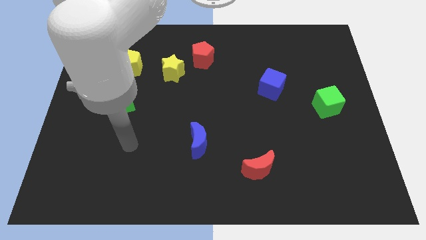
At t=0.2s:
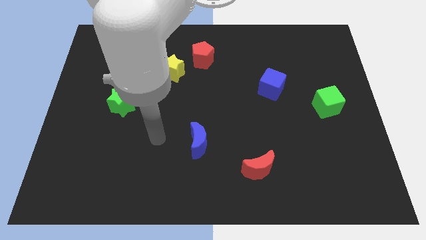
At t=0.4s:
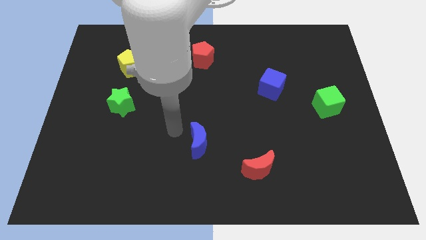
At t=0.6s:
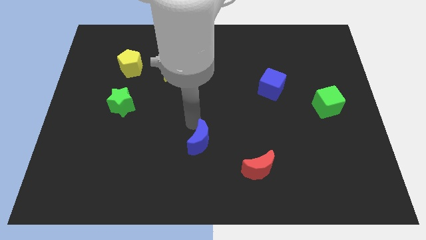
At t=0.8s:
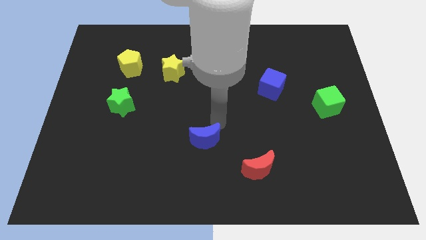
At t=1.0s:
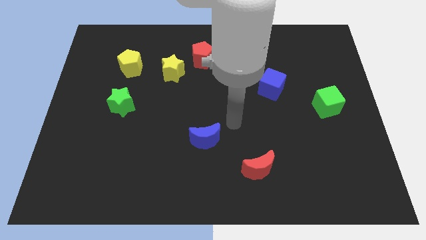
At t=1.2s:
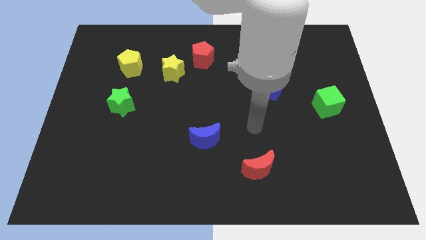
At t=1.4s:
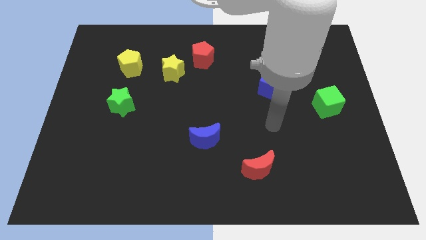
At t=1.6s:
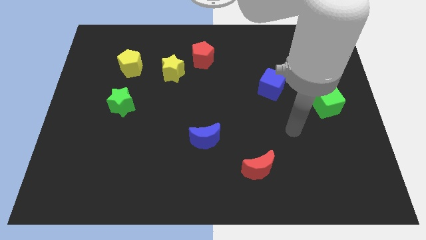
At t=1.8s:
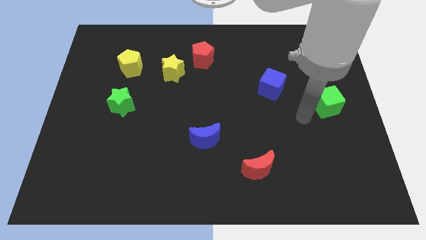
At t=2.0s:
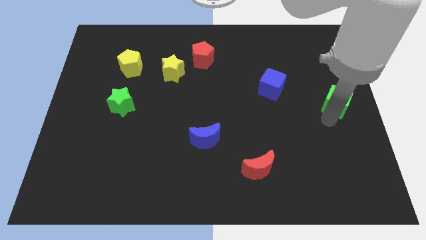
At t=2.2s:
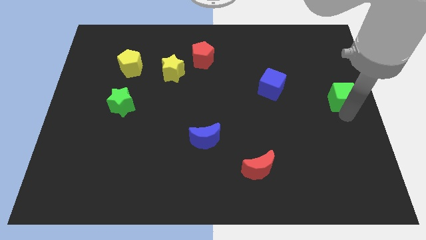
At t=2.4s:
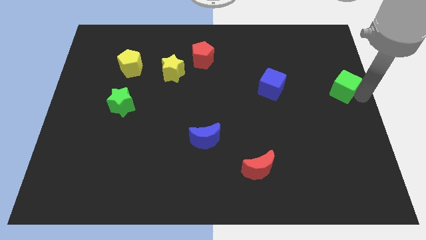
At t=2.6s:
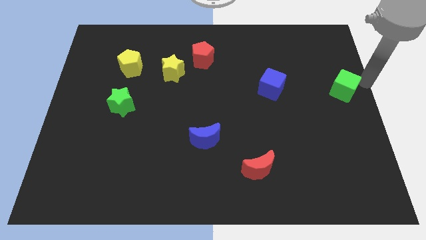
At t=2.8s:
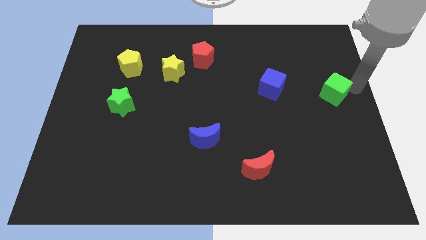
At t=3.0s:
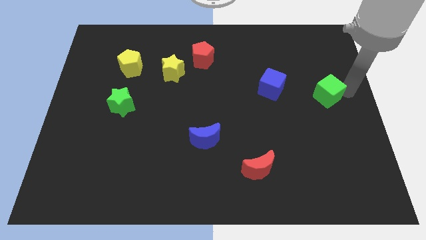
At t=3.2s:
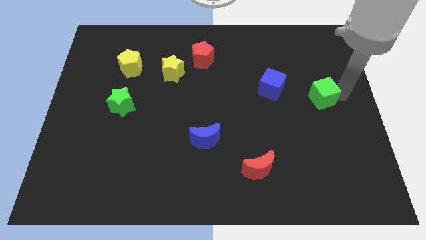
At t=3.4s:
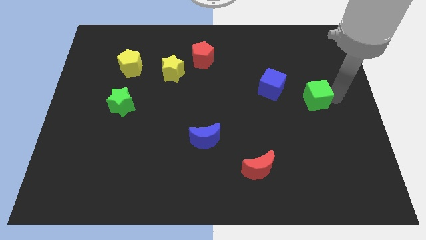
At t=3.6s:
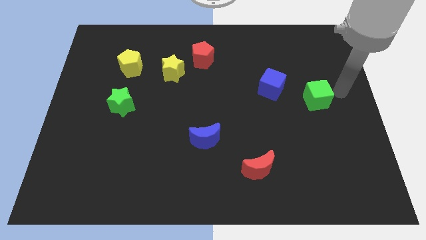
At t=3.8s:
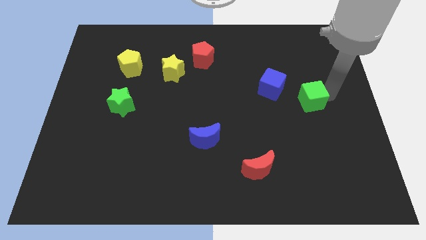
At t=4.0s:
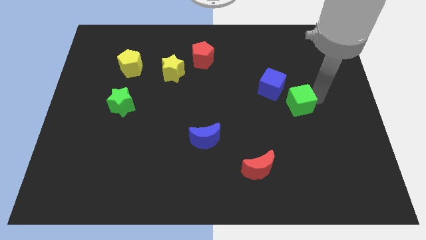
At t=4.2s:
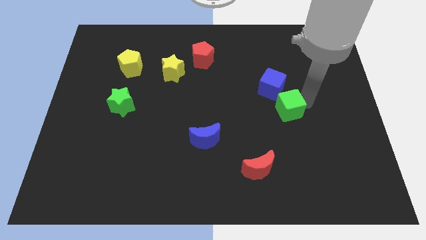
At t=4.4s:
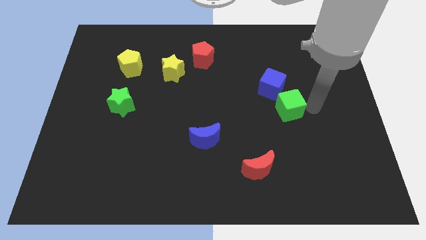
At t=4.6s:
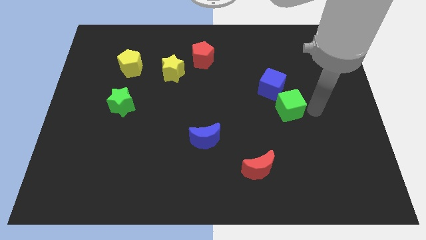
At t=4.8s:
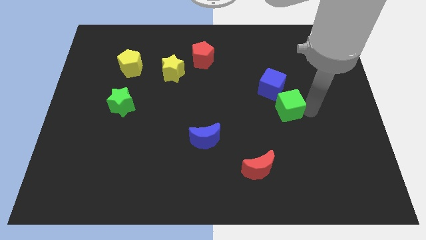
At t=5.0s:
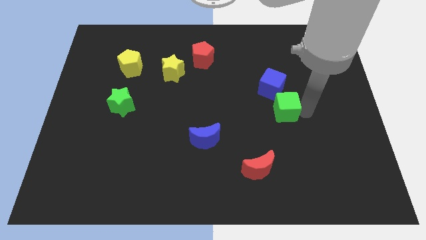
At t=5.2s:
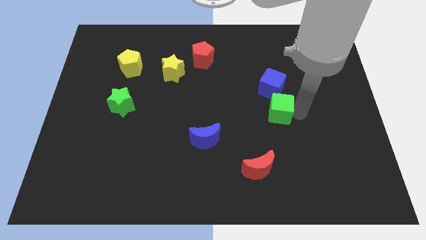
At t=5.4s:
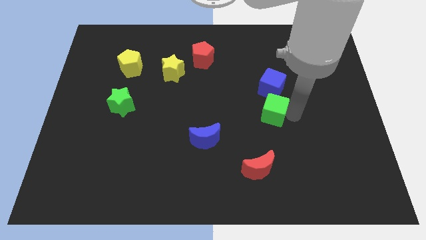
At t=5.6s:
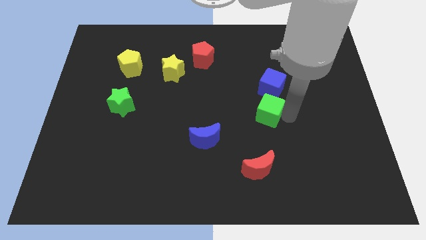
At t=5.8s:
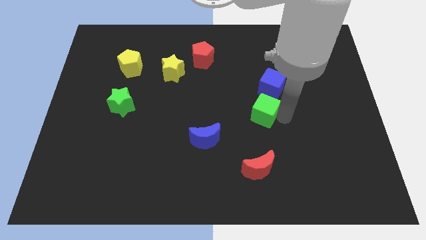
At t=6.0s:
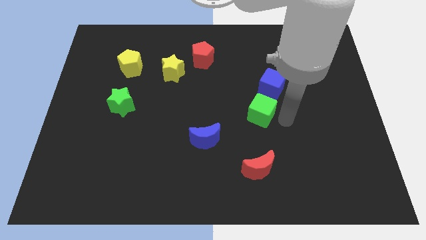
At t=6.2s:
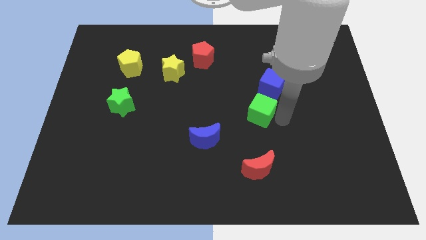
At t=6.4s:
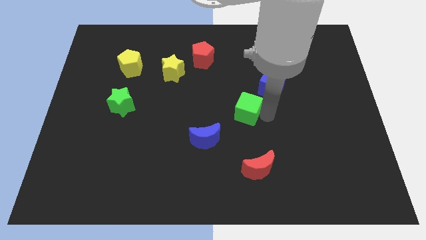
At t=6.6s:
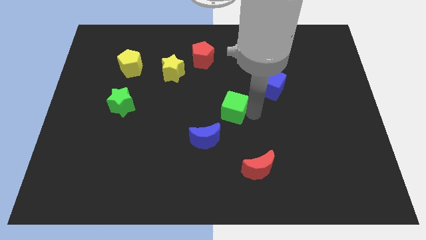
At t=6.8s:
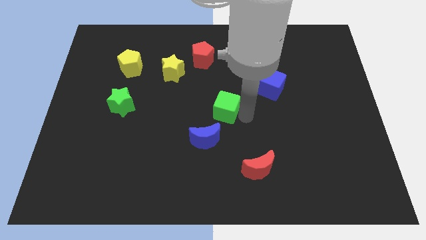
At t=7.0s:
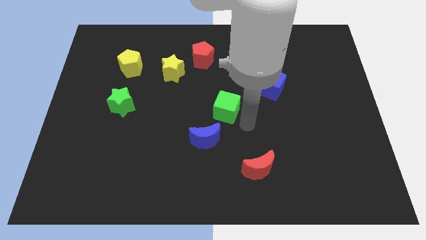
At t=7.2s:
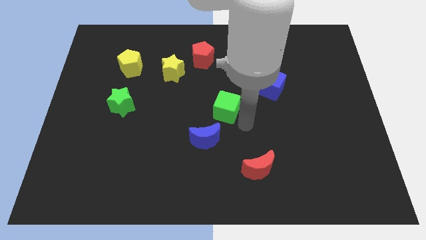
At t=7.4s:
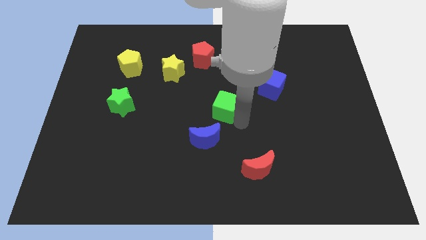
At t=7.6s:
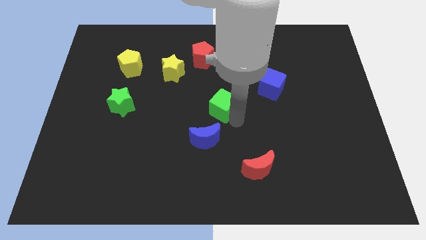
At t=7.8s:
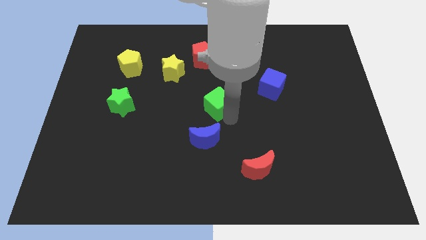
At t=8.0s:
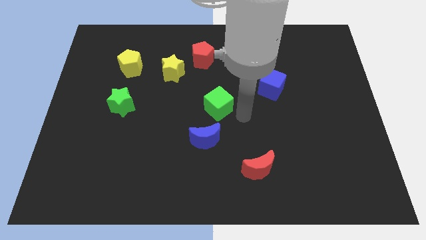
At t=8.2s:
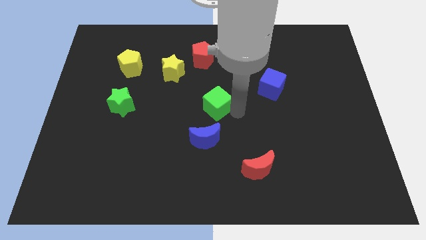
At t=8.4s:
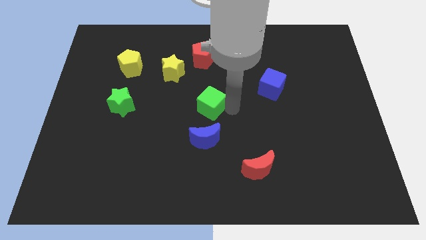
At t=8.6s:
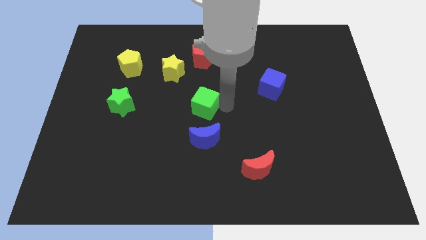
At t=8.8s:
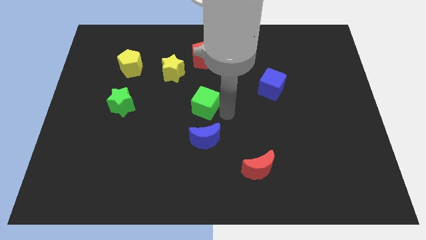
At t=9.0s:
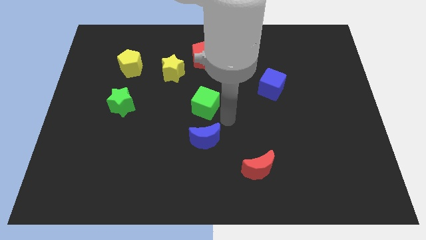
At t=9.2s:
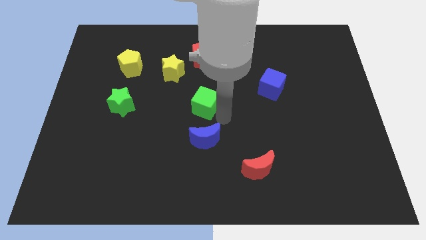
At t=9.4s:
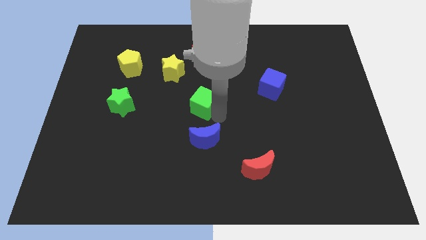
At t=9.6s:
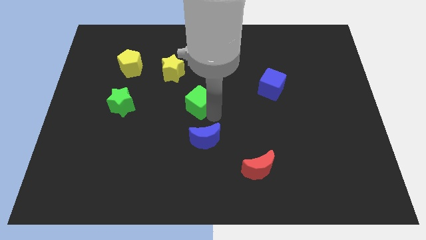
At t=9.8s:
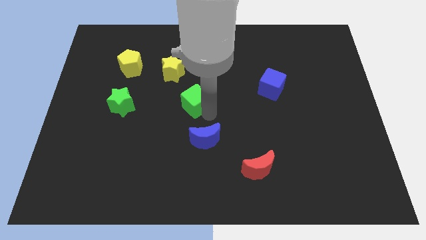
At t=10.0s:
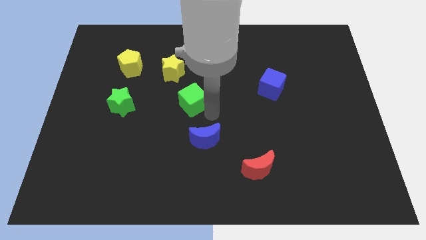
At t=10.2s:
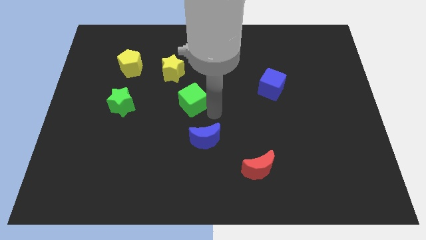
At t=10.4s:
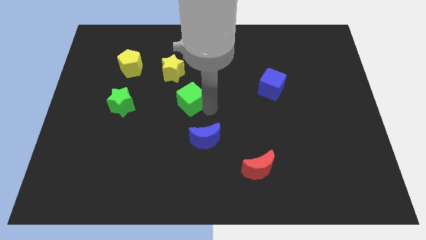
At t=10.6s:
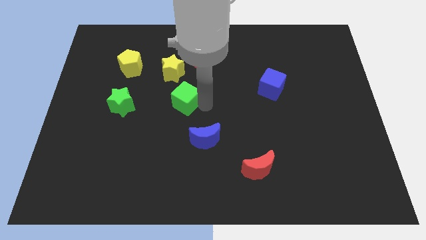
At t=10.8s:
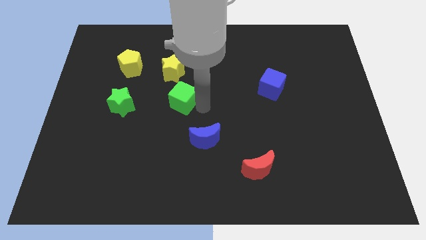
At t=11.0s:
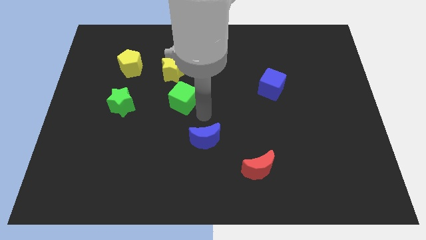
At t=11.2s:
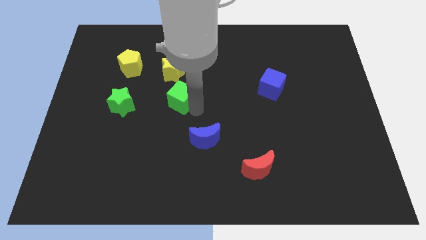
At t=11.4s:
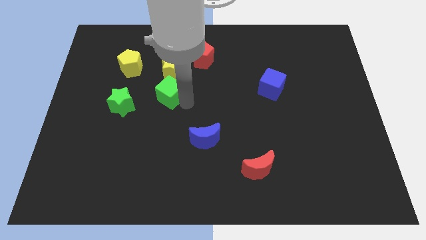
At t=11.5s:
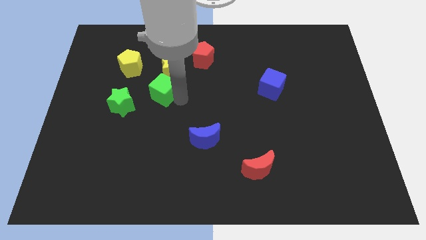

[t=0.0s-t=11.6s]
slide the green cube to the bottom left side of the yellow star

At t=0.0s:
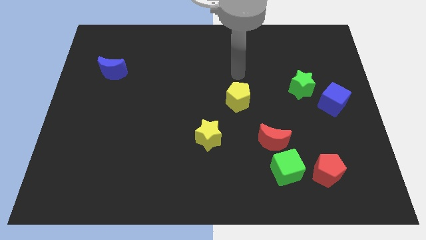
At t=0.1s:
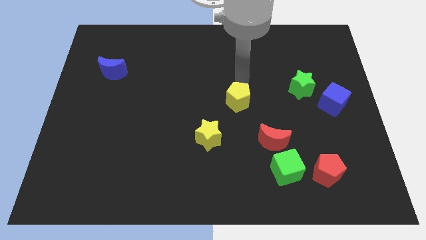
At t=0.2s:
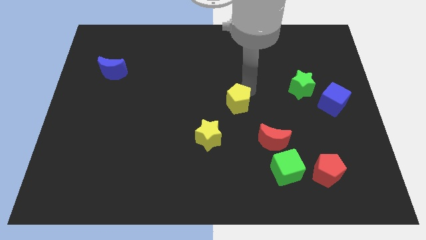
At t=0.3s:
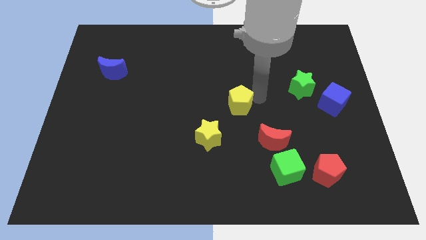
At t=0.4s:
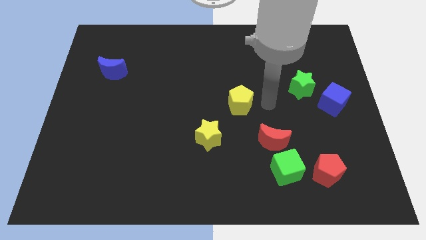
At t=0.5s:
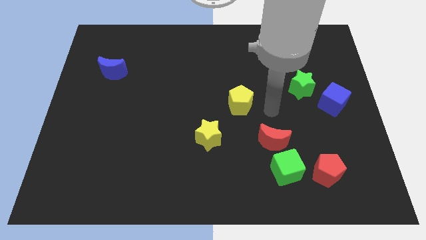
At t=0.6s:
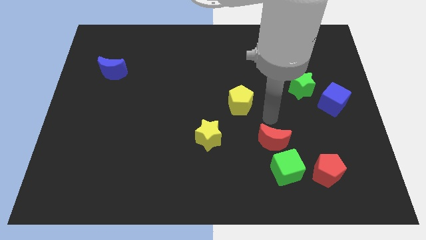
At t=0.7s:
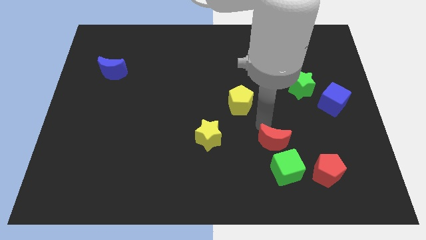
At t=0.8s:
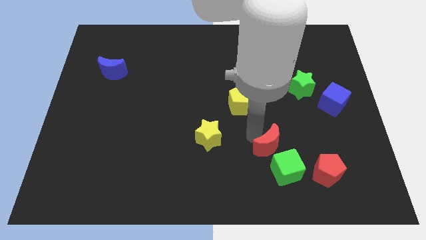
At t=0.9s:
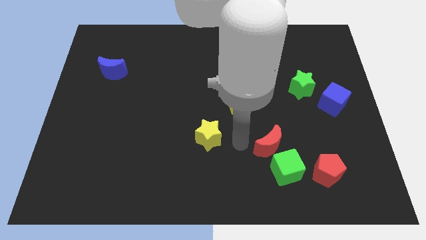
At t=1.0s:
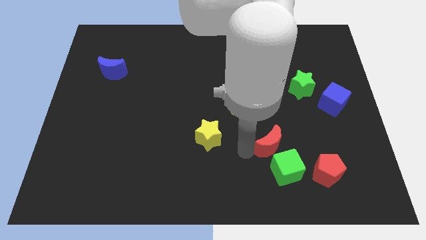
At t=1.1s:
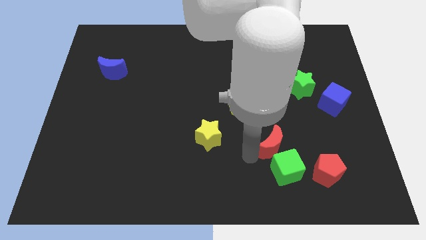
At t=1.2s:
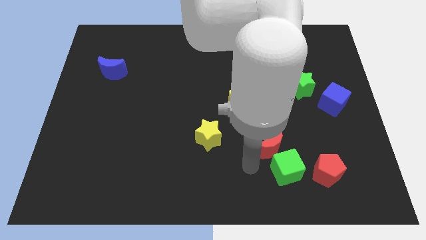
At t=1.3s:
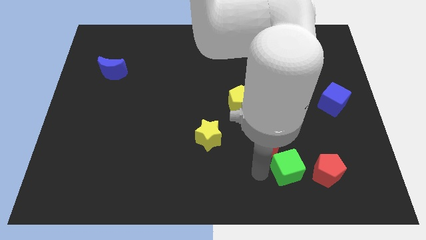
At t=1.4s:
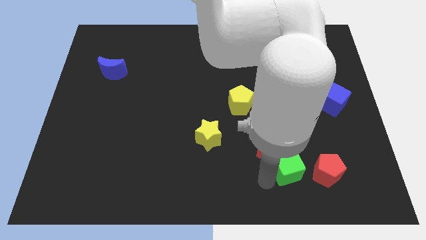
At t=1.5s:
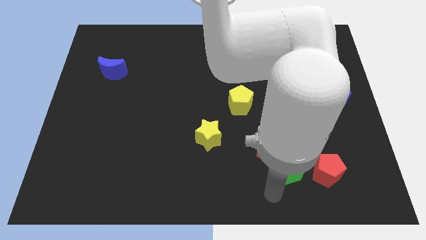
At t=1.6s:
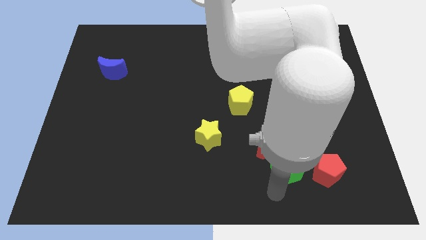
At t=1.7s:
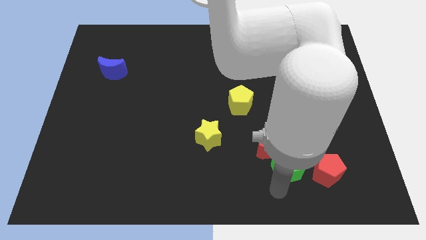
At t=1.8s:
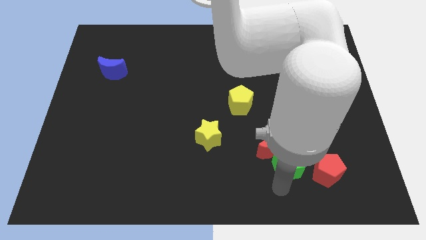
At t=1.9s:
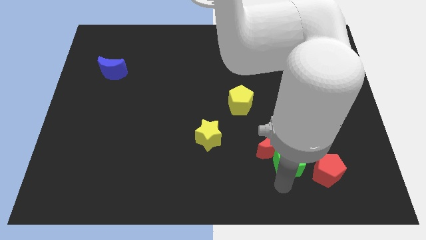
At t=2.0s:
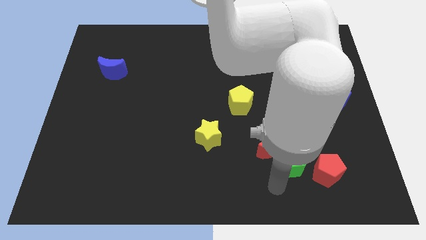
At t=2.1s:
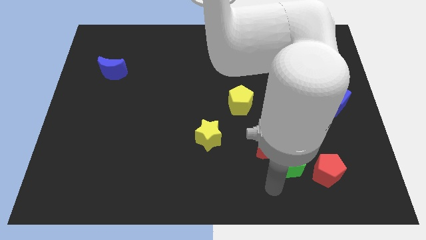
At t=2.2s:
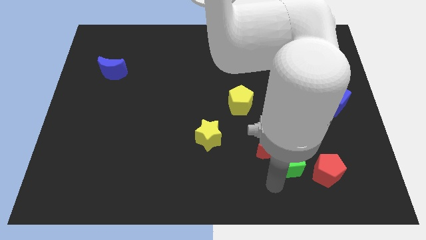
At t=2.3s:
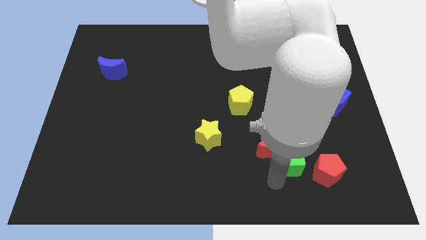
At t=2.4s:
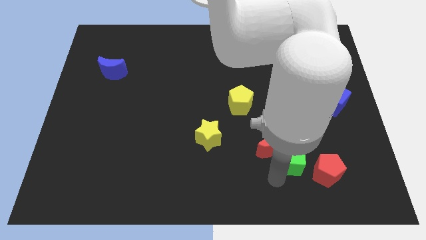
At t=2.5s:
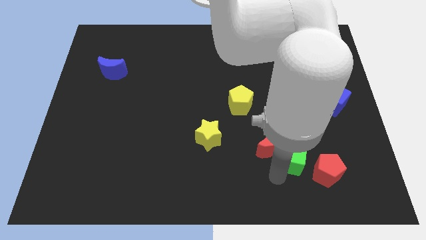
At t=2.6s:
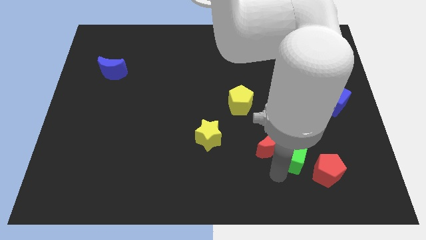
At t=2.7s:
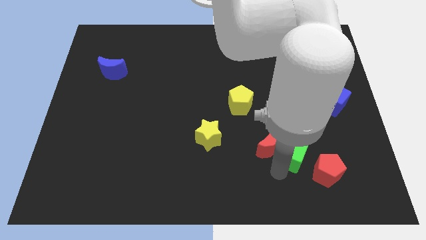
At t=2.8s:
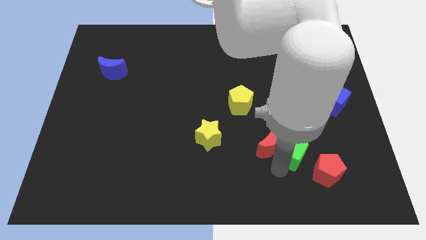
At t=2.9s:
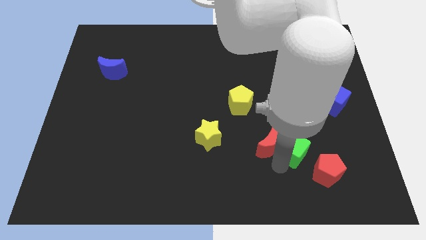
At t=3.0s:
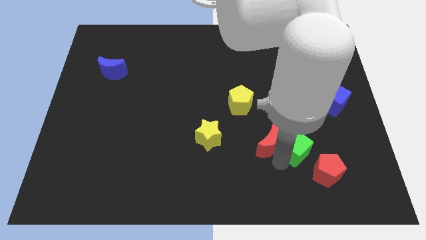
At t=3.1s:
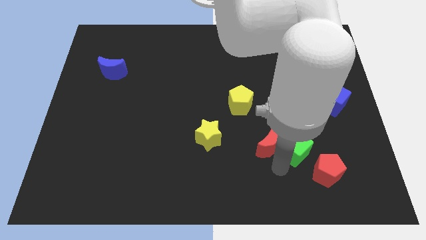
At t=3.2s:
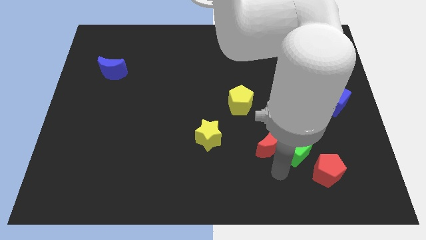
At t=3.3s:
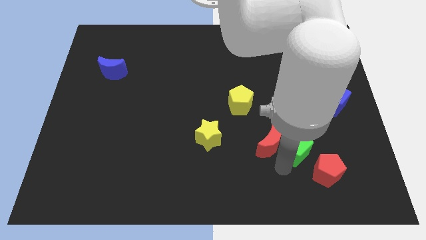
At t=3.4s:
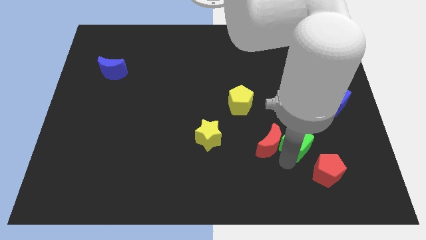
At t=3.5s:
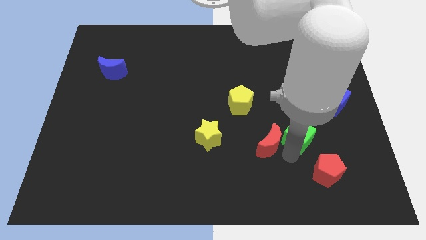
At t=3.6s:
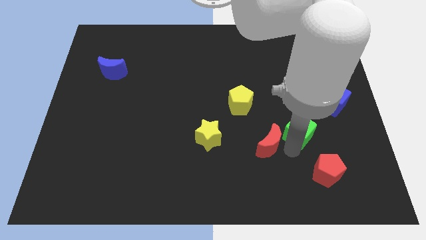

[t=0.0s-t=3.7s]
push the green cube to the bottom left of the blue cube
